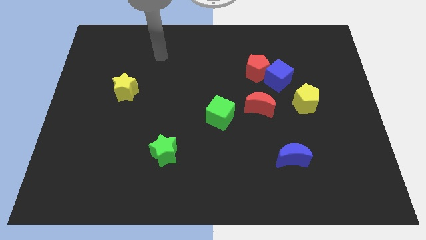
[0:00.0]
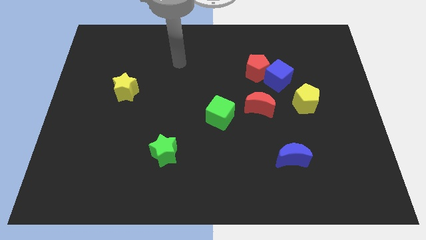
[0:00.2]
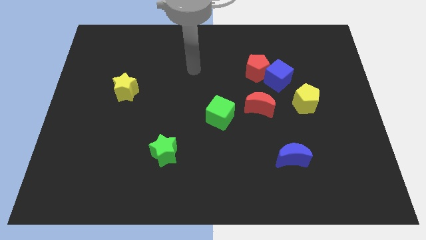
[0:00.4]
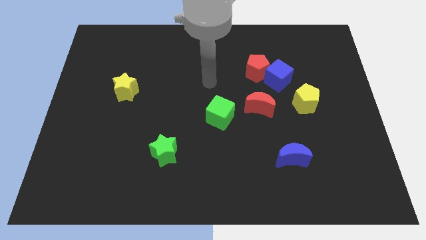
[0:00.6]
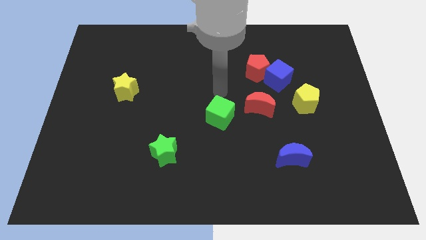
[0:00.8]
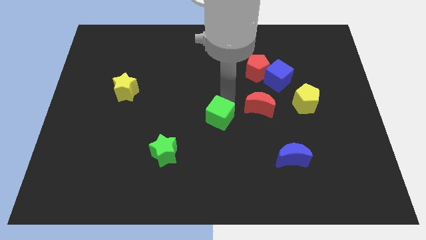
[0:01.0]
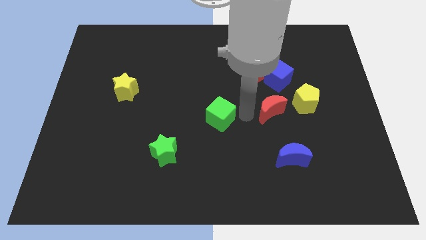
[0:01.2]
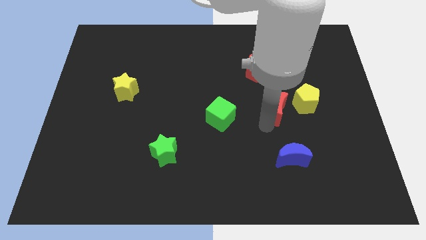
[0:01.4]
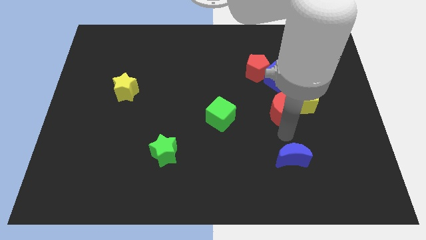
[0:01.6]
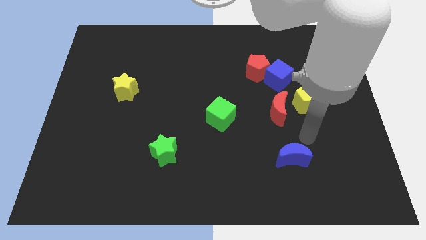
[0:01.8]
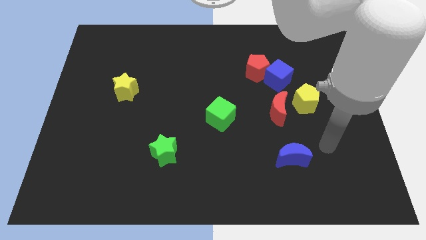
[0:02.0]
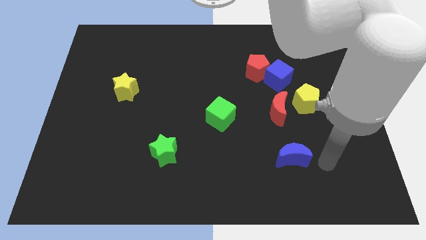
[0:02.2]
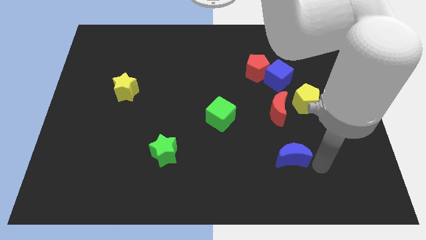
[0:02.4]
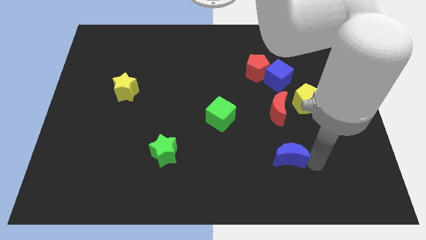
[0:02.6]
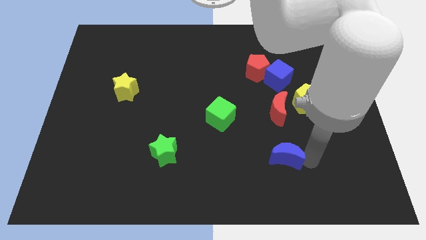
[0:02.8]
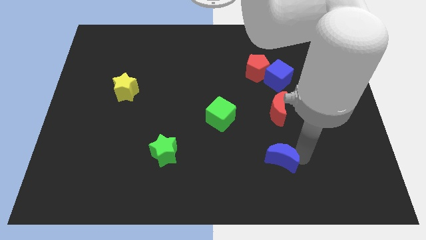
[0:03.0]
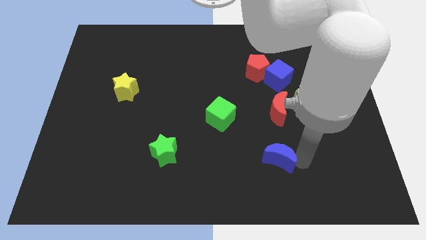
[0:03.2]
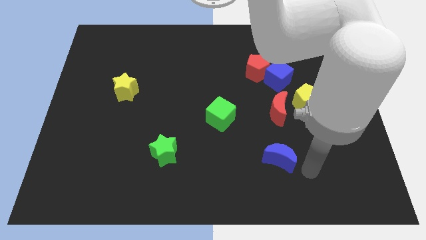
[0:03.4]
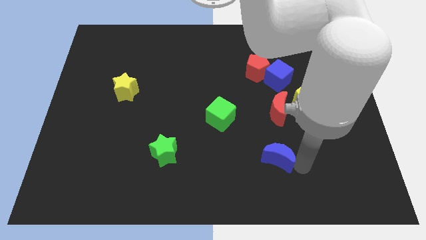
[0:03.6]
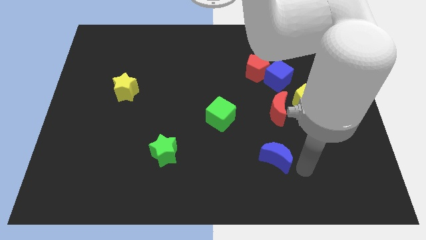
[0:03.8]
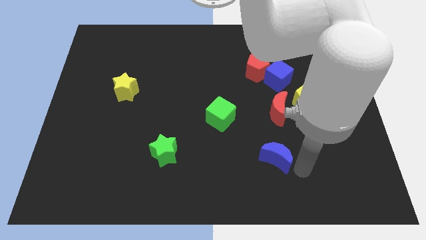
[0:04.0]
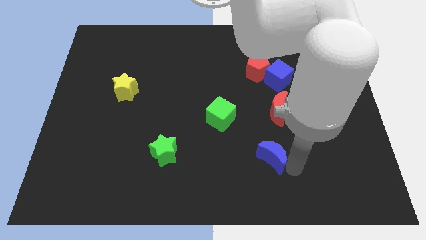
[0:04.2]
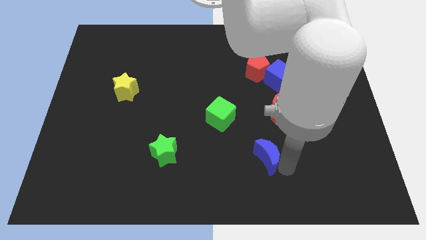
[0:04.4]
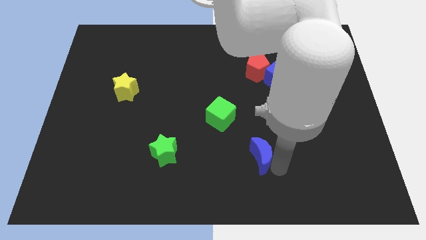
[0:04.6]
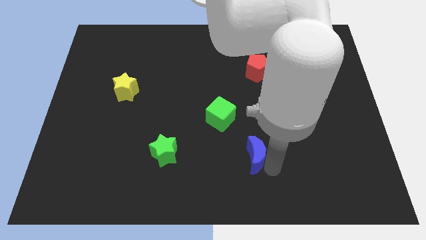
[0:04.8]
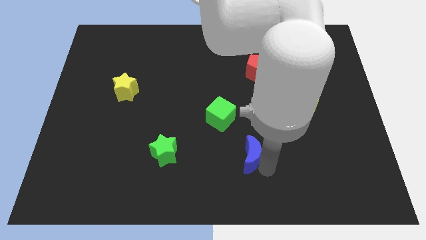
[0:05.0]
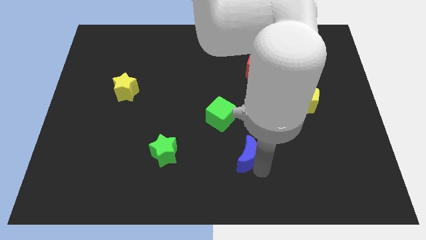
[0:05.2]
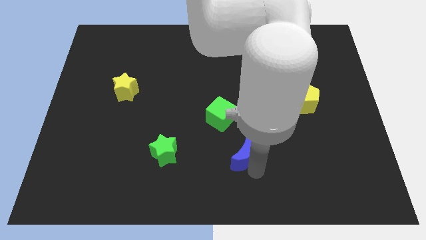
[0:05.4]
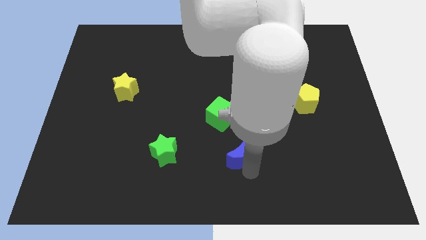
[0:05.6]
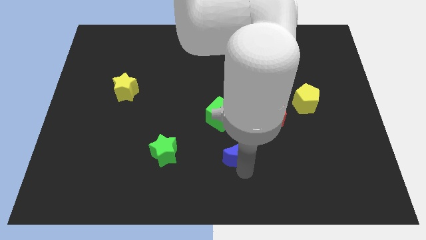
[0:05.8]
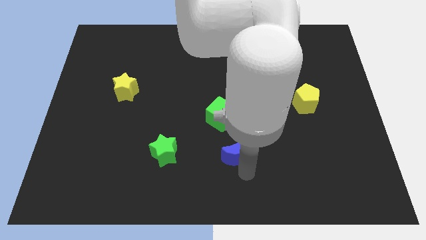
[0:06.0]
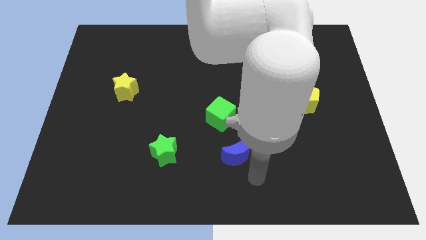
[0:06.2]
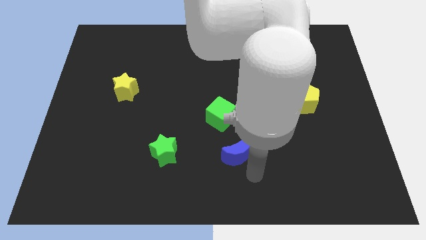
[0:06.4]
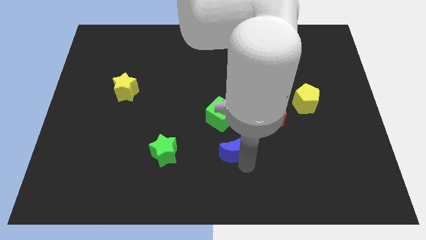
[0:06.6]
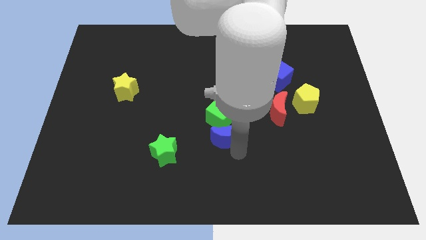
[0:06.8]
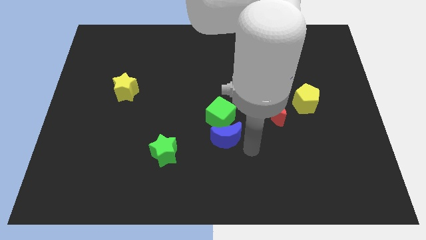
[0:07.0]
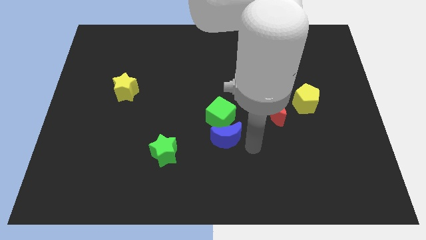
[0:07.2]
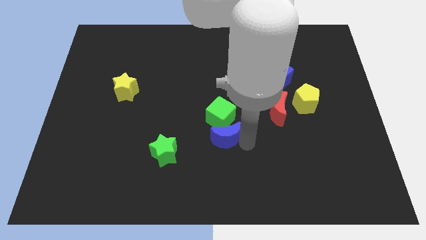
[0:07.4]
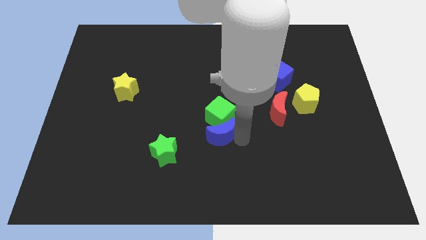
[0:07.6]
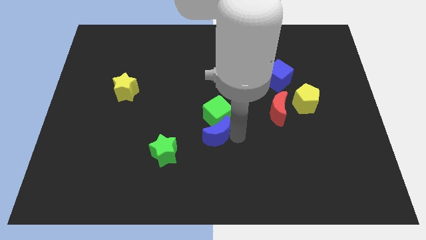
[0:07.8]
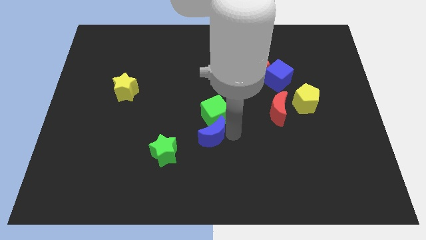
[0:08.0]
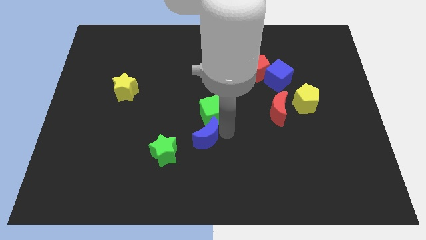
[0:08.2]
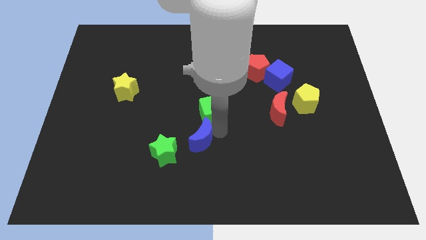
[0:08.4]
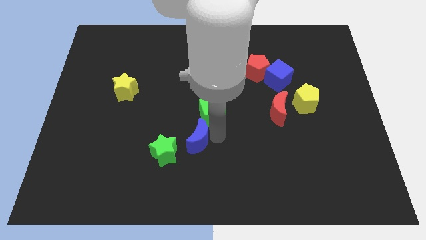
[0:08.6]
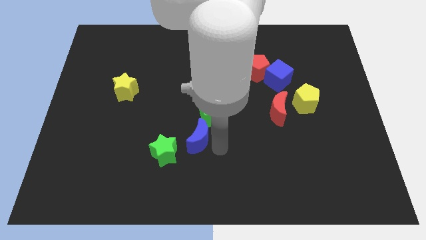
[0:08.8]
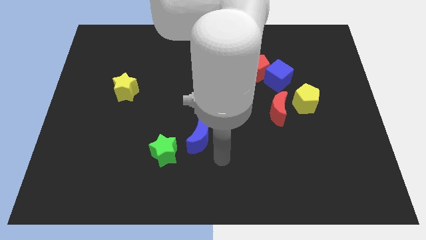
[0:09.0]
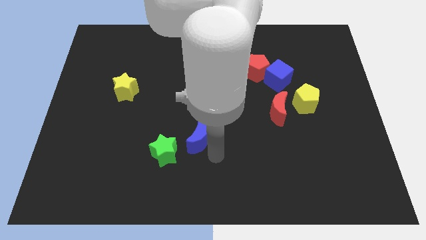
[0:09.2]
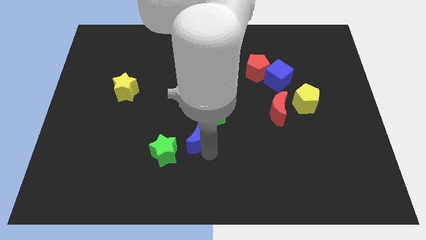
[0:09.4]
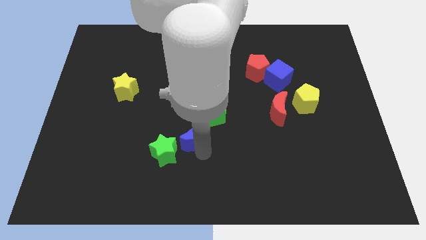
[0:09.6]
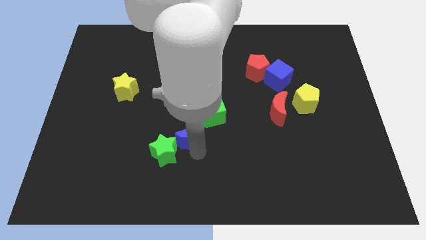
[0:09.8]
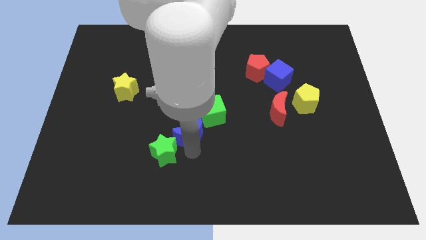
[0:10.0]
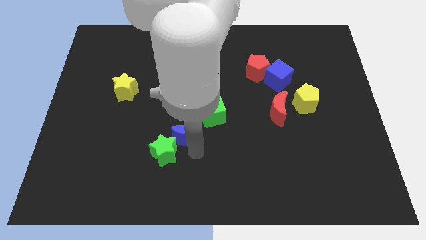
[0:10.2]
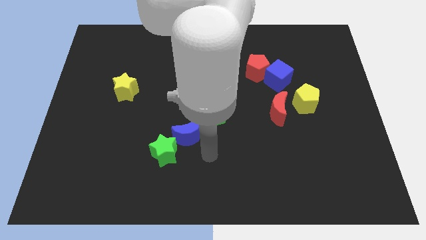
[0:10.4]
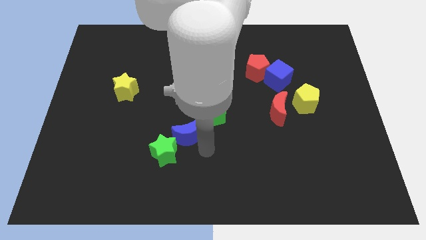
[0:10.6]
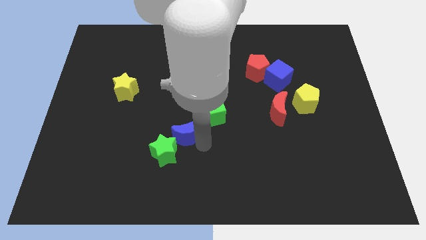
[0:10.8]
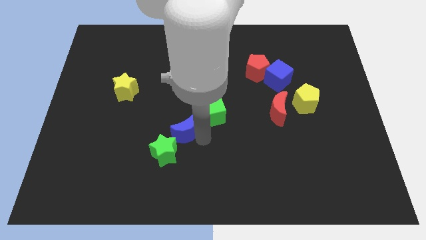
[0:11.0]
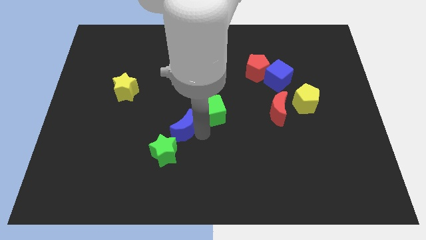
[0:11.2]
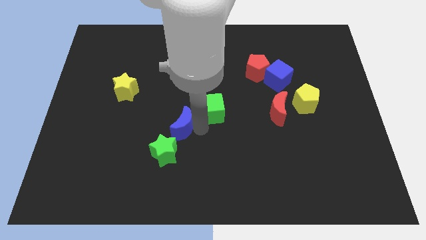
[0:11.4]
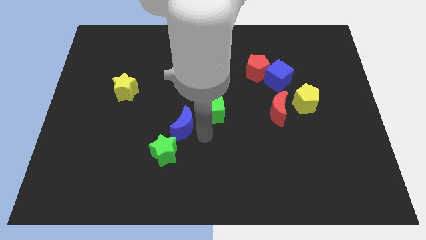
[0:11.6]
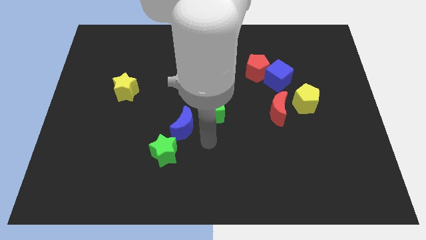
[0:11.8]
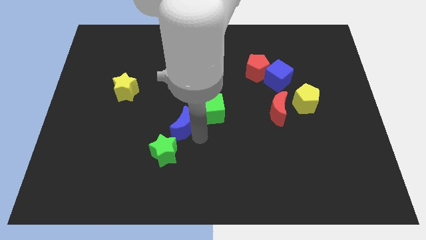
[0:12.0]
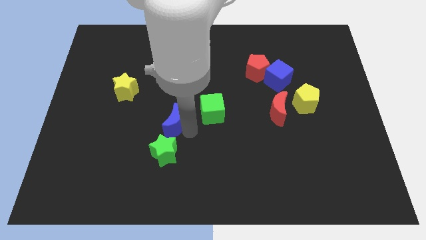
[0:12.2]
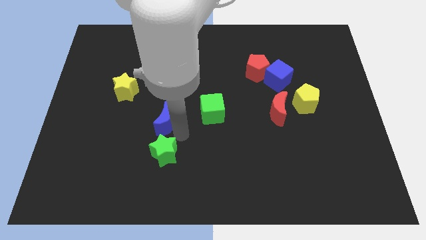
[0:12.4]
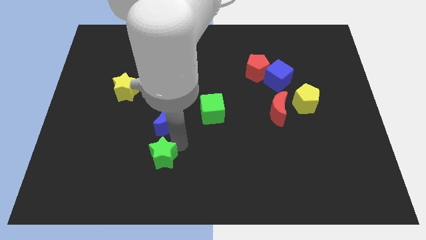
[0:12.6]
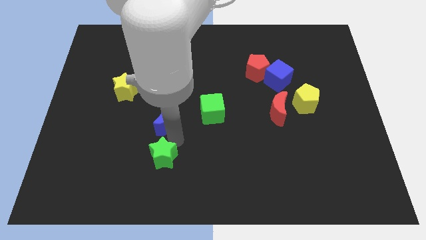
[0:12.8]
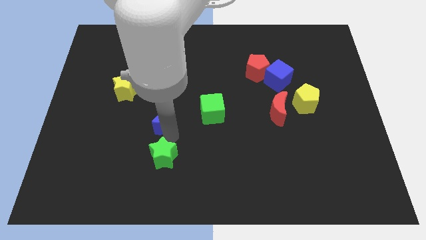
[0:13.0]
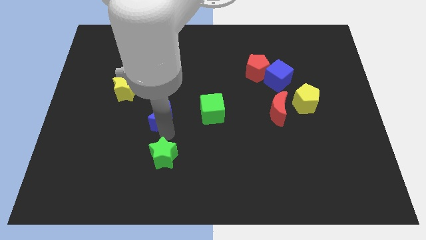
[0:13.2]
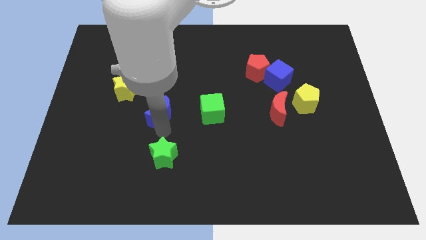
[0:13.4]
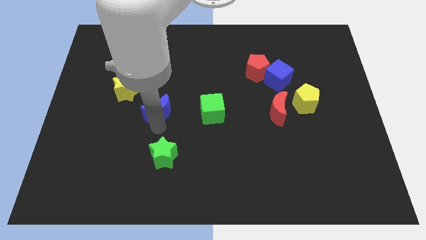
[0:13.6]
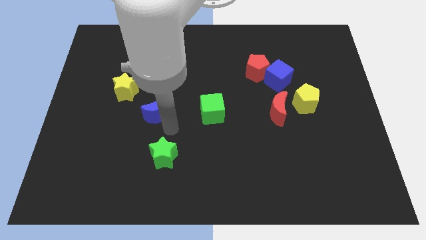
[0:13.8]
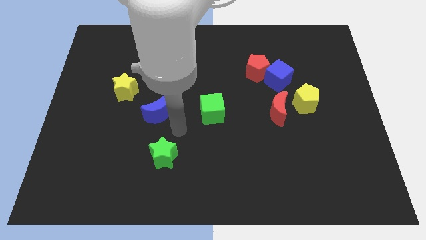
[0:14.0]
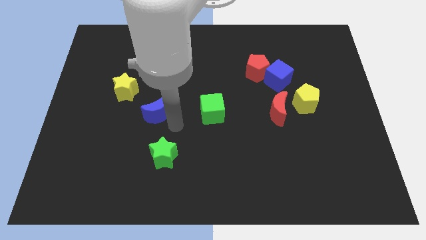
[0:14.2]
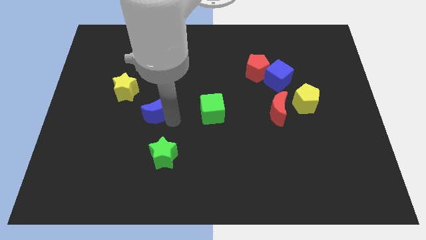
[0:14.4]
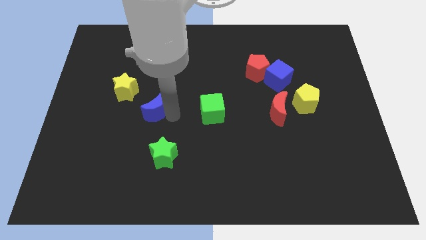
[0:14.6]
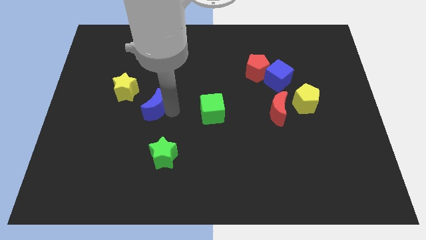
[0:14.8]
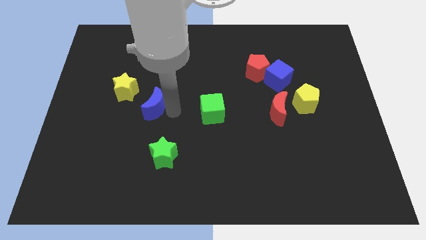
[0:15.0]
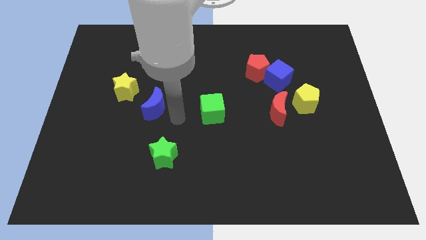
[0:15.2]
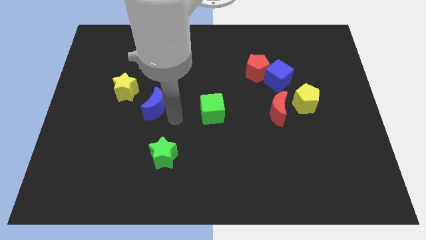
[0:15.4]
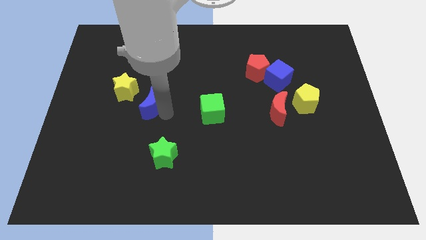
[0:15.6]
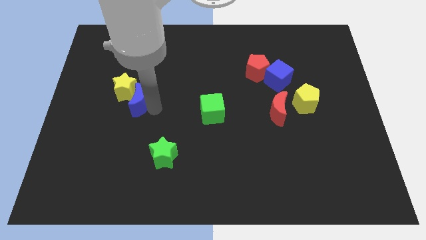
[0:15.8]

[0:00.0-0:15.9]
put the blue moon towards the yellow star
